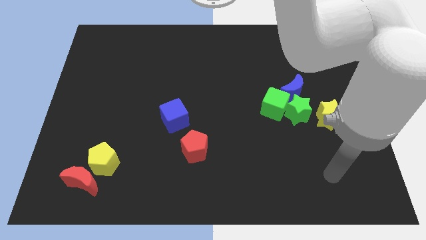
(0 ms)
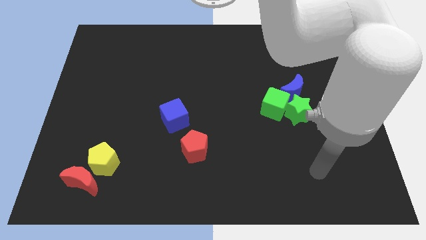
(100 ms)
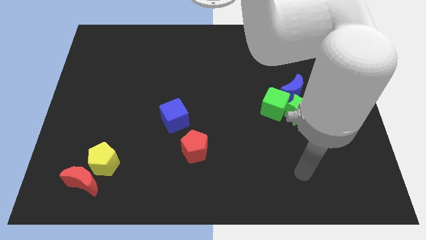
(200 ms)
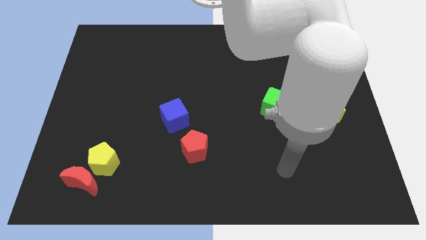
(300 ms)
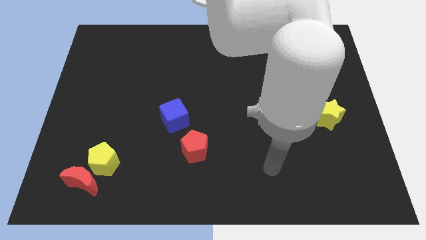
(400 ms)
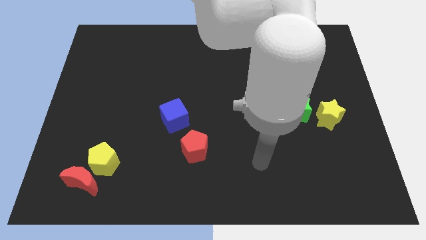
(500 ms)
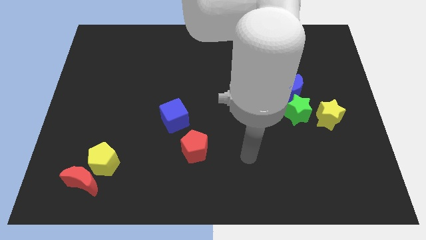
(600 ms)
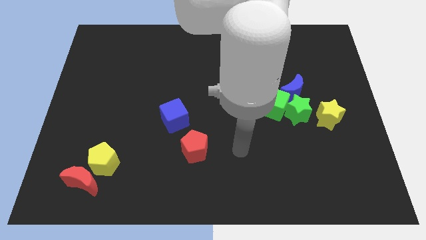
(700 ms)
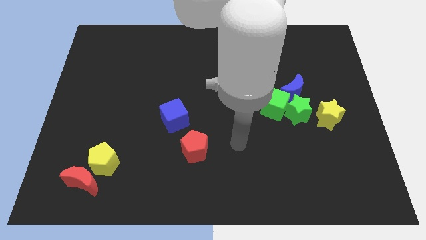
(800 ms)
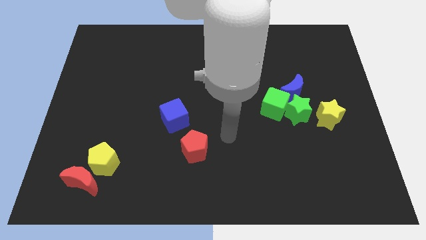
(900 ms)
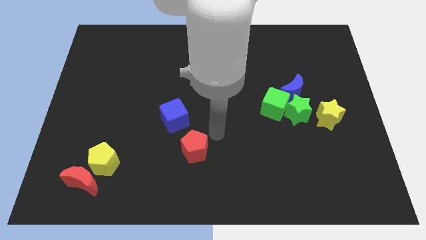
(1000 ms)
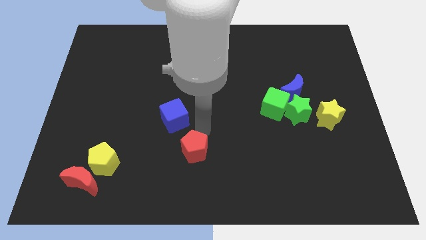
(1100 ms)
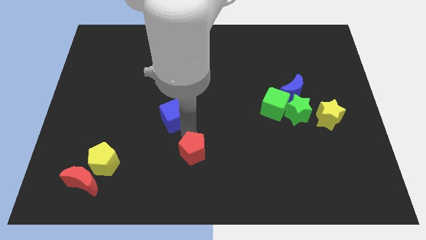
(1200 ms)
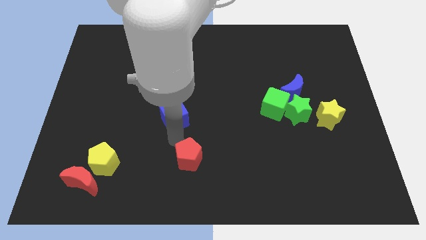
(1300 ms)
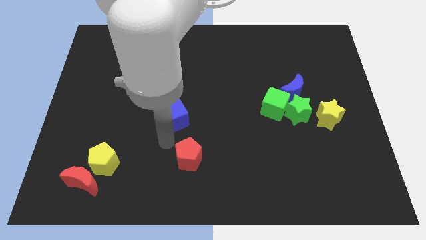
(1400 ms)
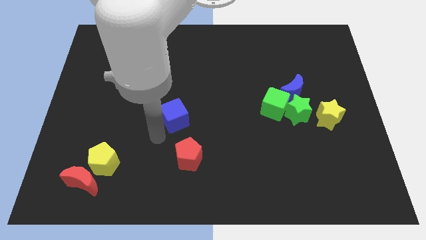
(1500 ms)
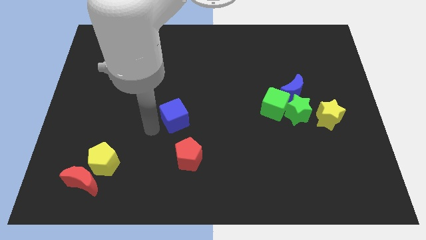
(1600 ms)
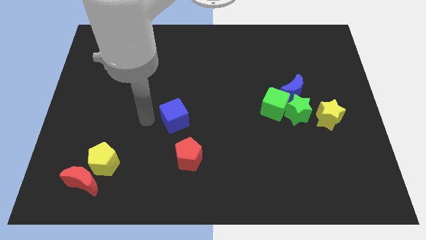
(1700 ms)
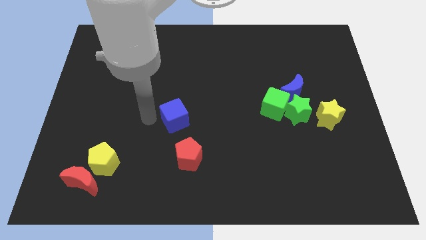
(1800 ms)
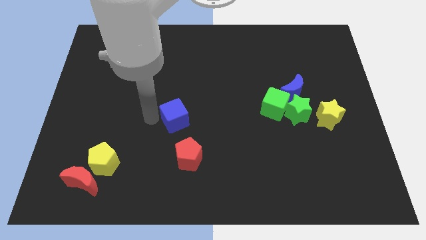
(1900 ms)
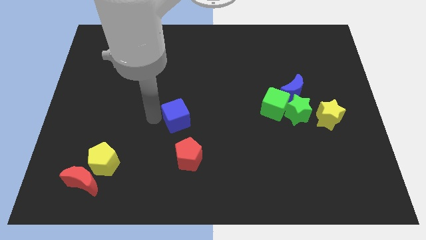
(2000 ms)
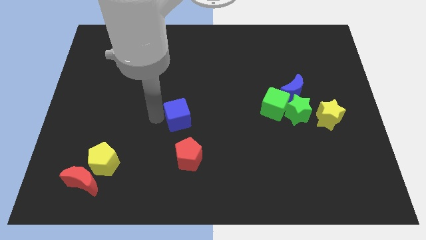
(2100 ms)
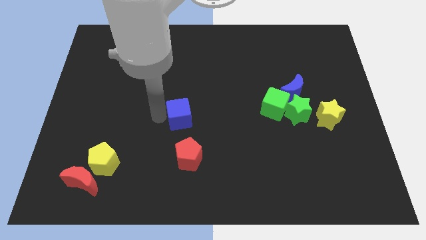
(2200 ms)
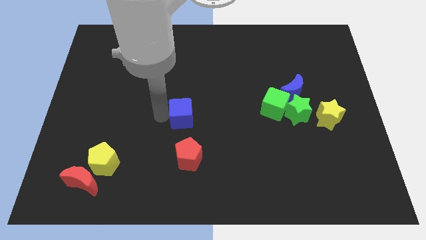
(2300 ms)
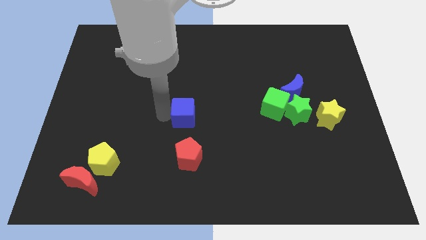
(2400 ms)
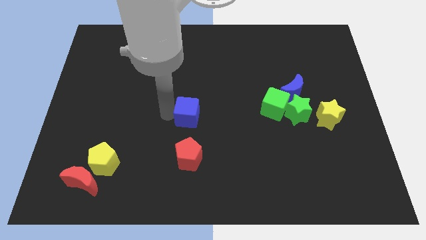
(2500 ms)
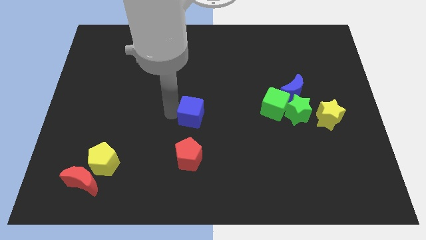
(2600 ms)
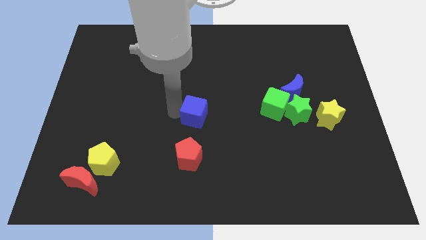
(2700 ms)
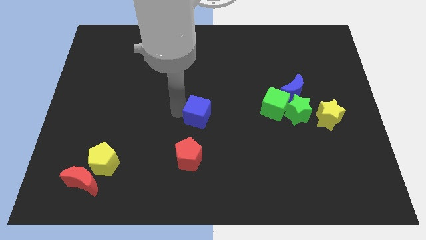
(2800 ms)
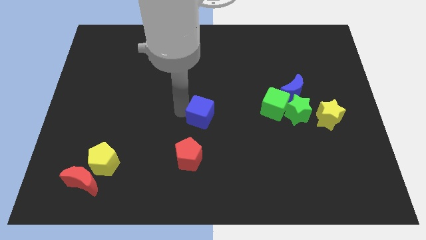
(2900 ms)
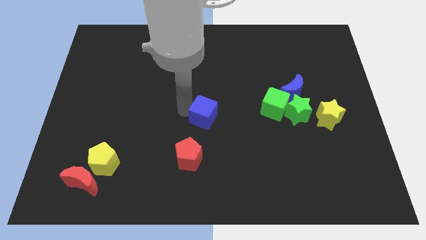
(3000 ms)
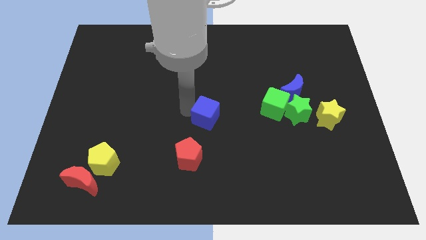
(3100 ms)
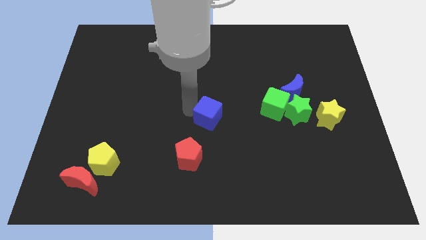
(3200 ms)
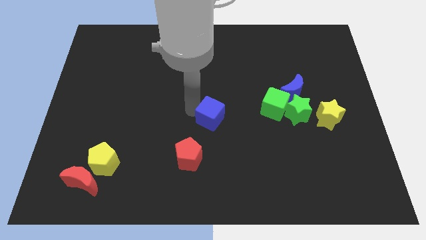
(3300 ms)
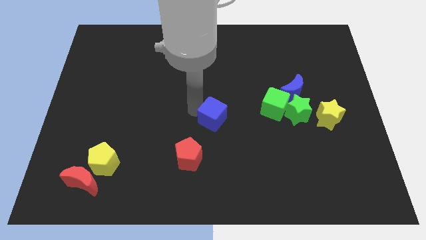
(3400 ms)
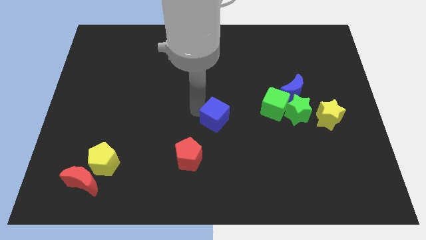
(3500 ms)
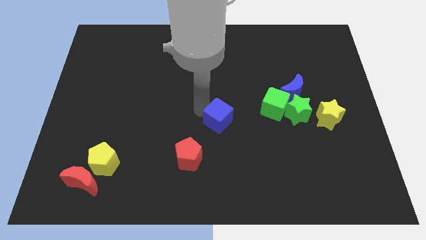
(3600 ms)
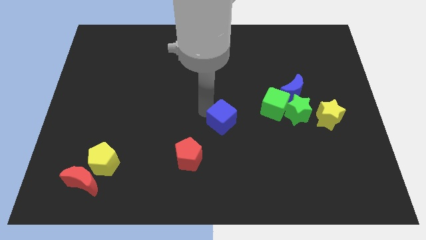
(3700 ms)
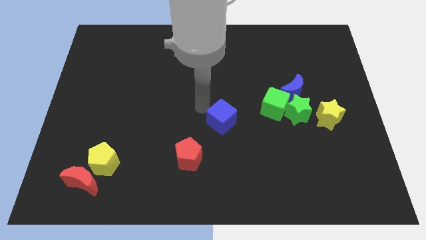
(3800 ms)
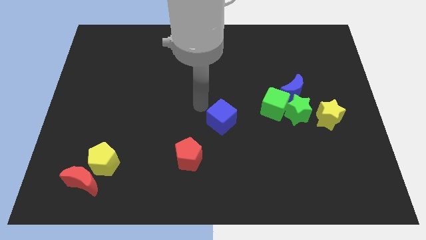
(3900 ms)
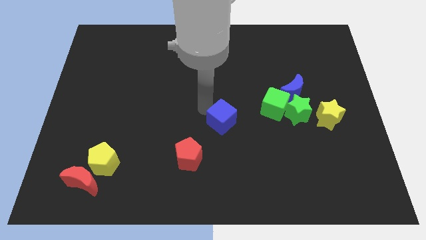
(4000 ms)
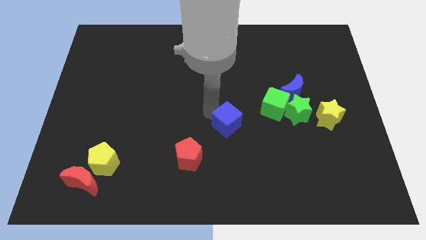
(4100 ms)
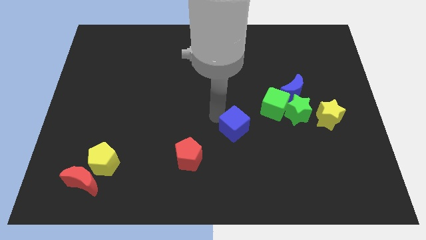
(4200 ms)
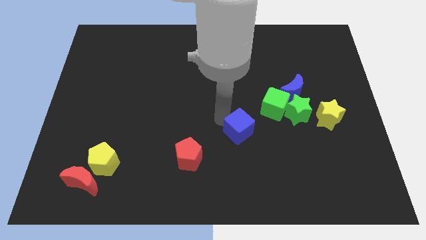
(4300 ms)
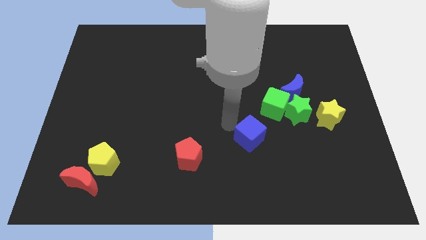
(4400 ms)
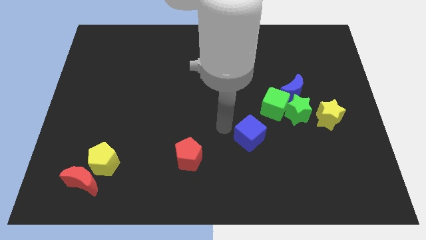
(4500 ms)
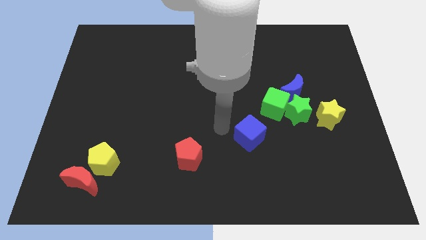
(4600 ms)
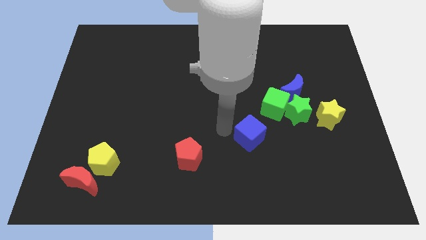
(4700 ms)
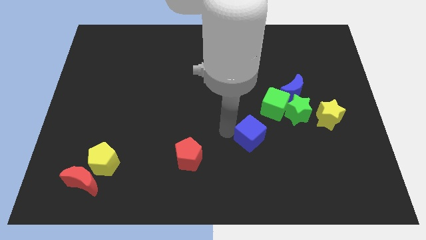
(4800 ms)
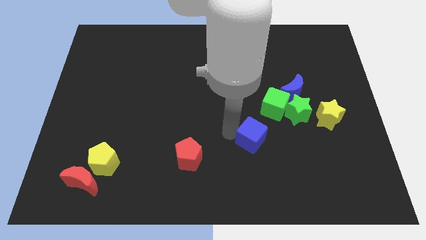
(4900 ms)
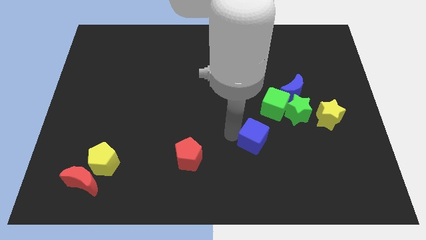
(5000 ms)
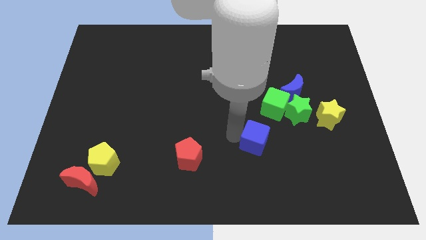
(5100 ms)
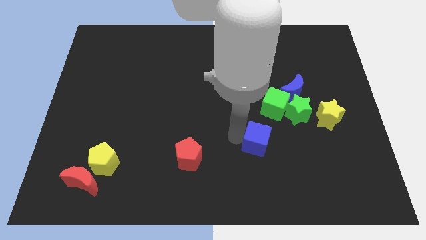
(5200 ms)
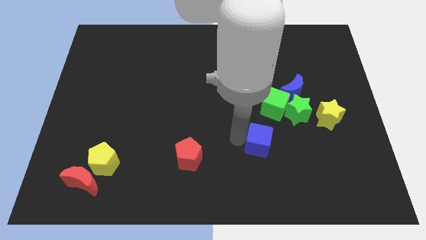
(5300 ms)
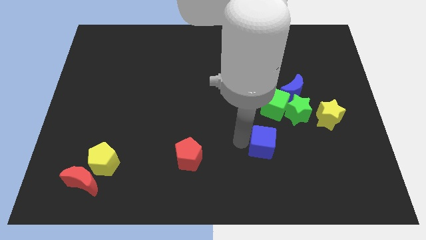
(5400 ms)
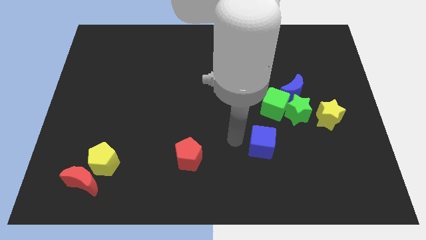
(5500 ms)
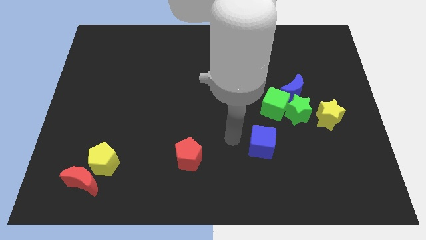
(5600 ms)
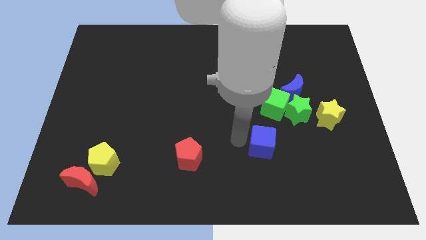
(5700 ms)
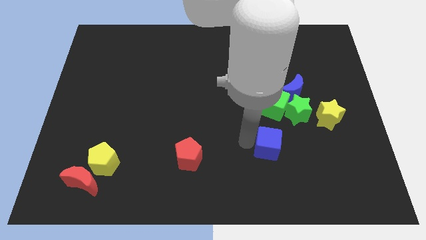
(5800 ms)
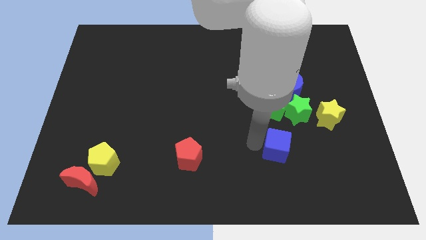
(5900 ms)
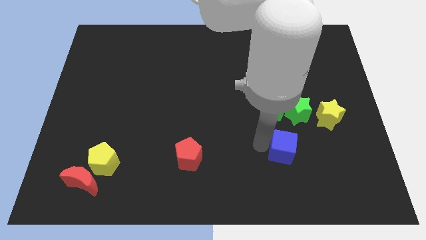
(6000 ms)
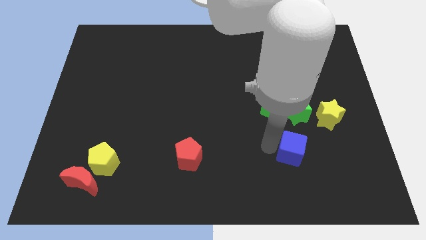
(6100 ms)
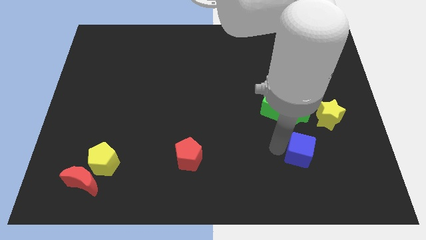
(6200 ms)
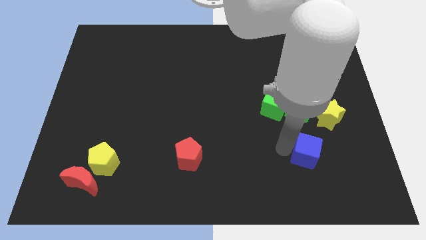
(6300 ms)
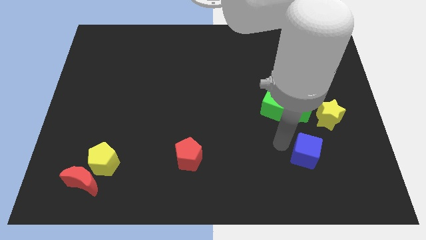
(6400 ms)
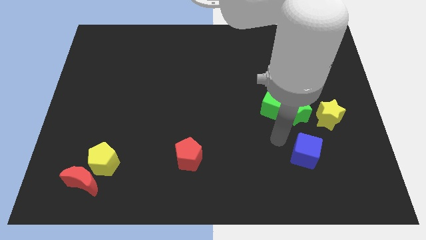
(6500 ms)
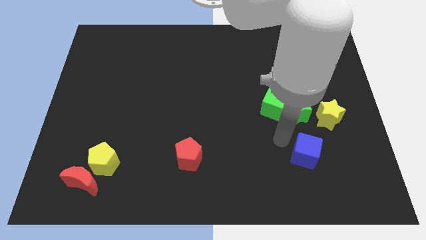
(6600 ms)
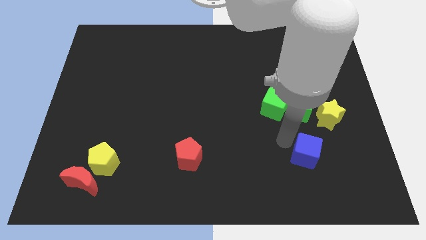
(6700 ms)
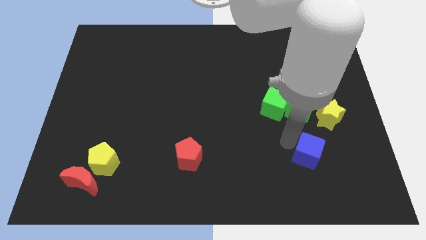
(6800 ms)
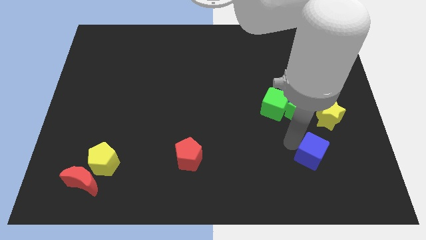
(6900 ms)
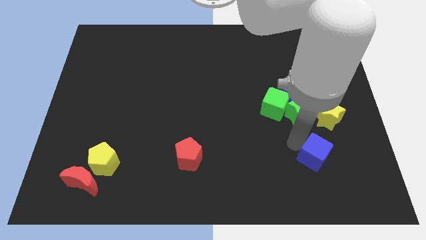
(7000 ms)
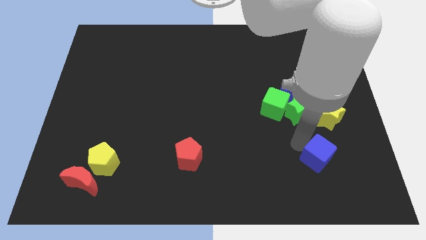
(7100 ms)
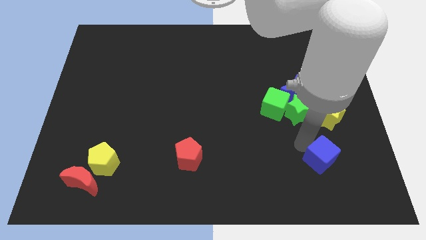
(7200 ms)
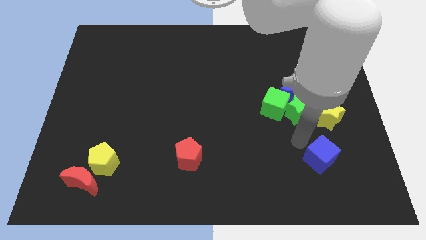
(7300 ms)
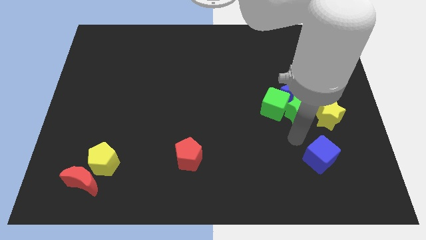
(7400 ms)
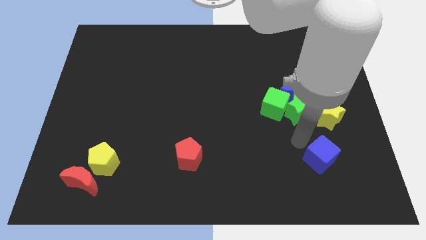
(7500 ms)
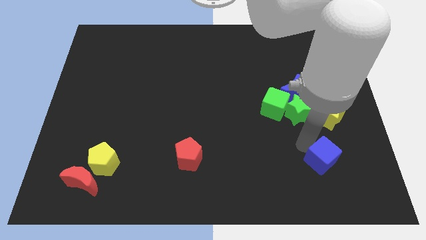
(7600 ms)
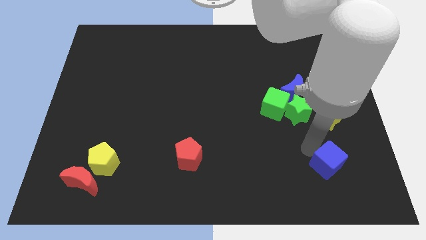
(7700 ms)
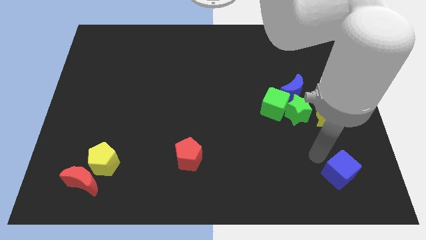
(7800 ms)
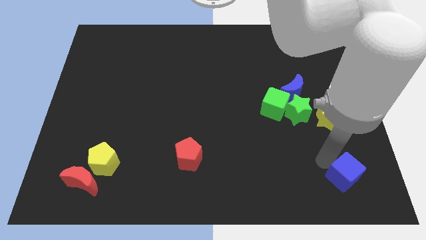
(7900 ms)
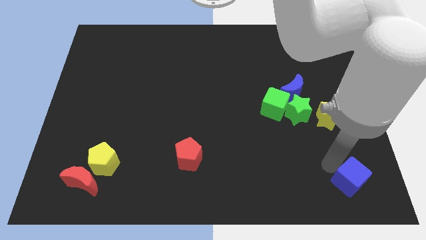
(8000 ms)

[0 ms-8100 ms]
move the blue cube to the lower right corner
